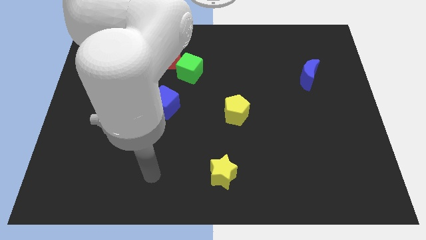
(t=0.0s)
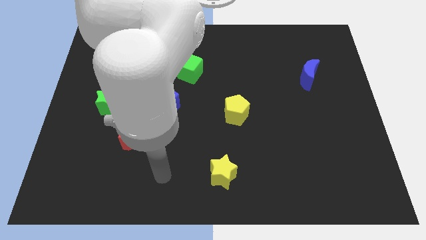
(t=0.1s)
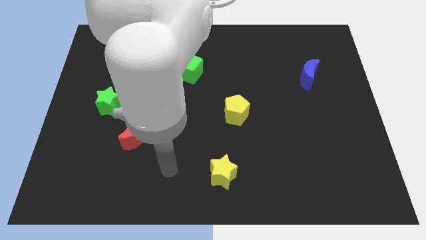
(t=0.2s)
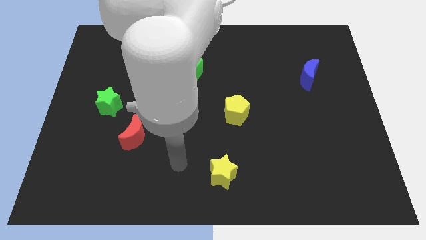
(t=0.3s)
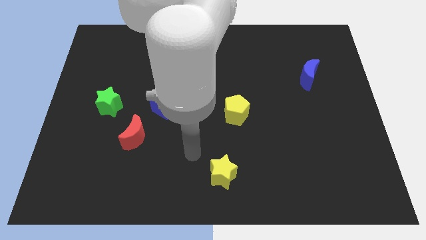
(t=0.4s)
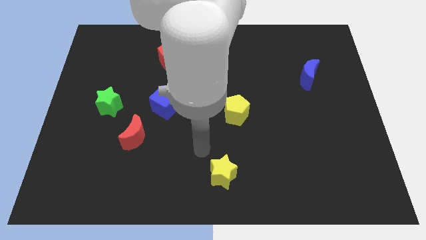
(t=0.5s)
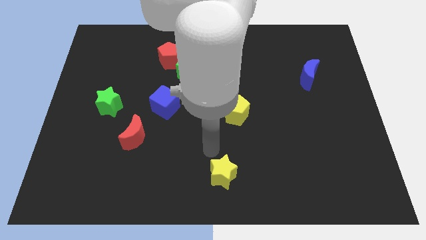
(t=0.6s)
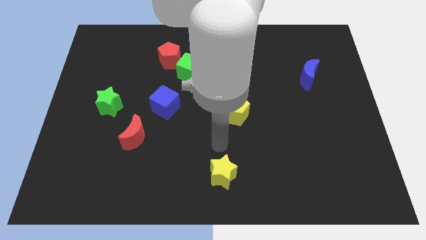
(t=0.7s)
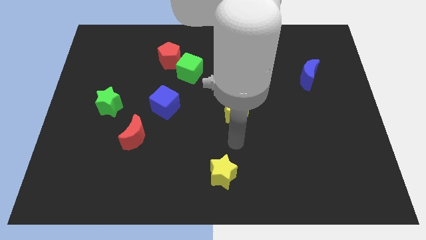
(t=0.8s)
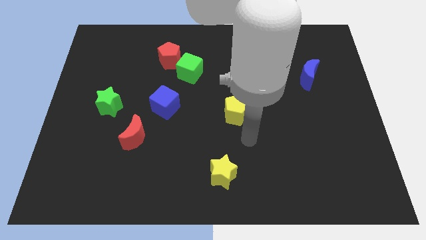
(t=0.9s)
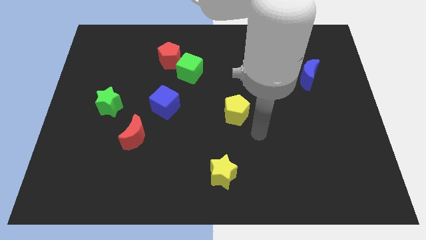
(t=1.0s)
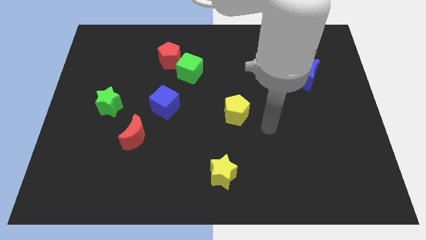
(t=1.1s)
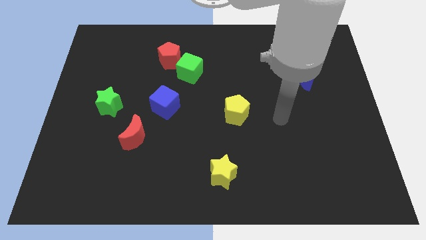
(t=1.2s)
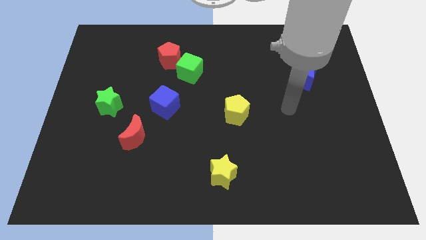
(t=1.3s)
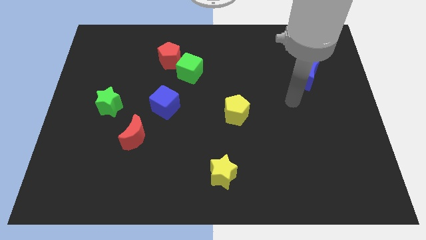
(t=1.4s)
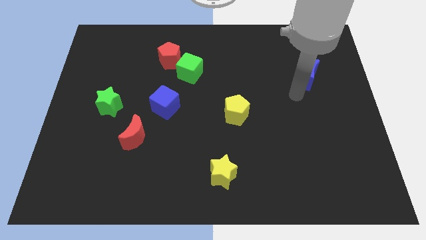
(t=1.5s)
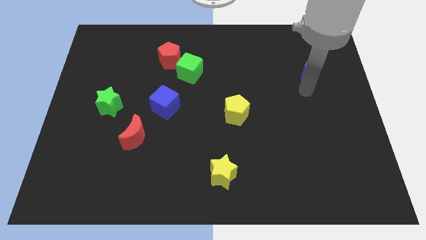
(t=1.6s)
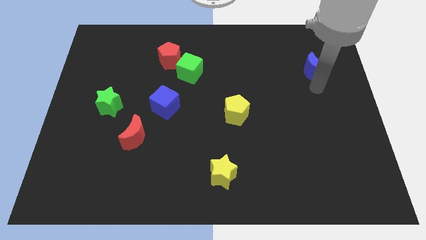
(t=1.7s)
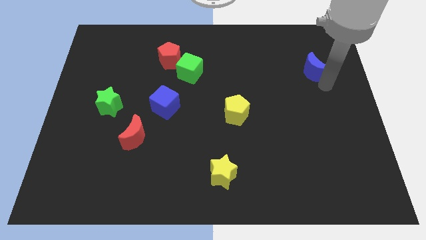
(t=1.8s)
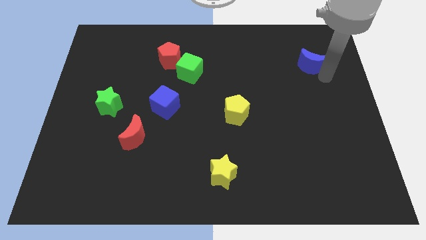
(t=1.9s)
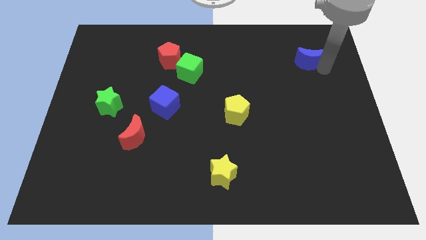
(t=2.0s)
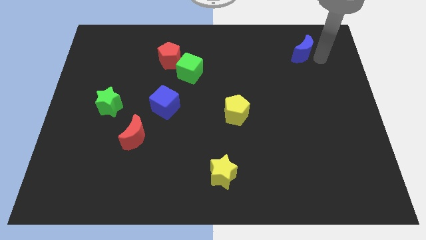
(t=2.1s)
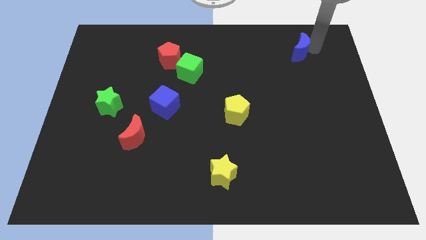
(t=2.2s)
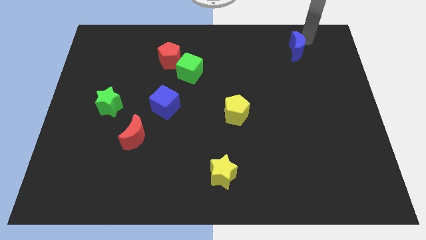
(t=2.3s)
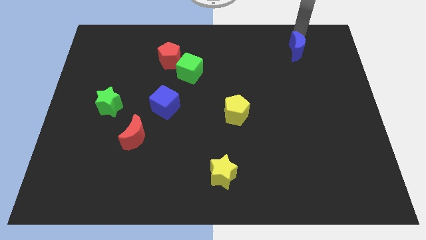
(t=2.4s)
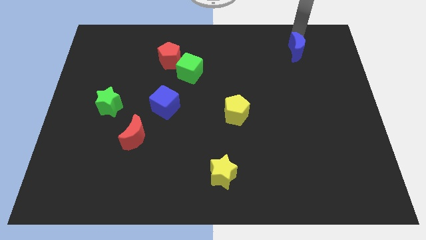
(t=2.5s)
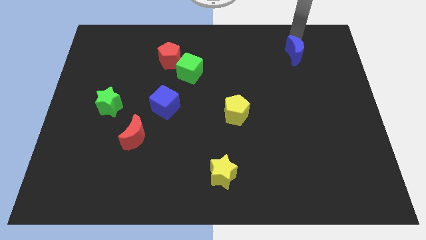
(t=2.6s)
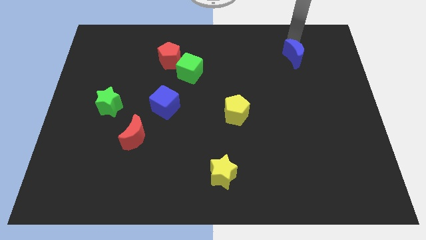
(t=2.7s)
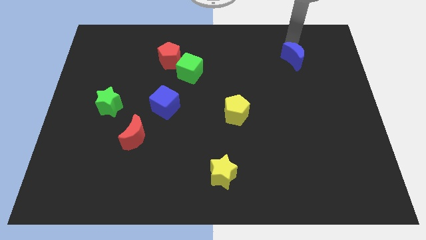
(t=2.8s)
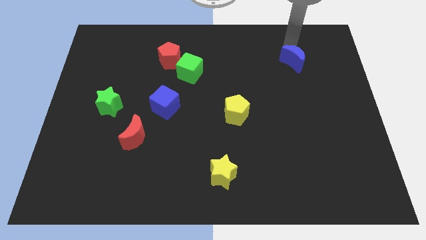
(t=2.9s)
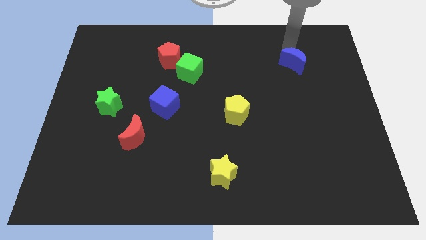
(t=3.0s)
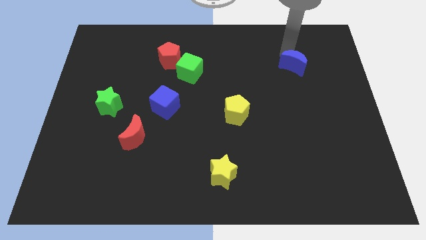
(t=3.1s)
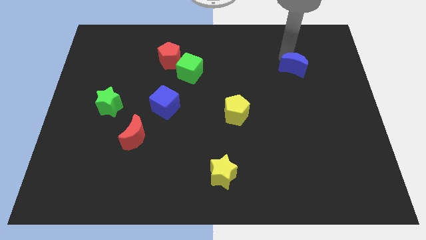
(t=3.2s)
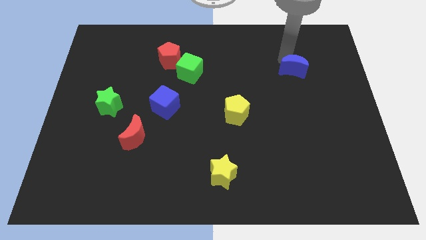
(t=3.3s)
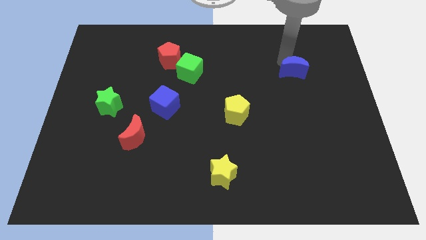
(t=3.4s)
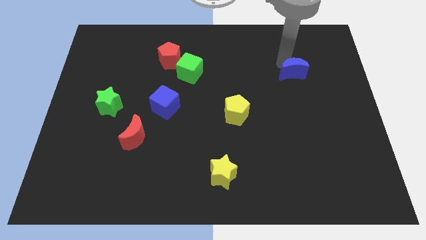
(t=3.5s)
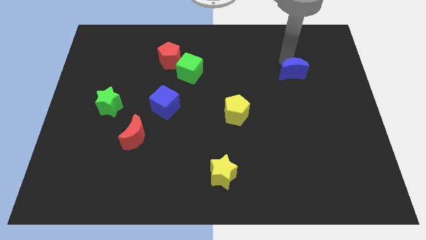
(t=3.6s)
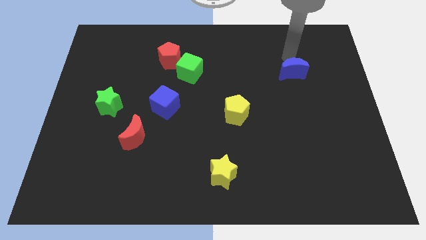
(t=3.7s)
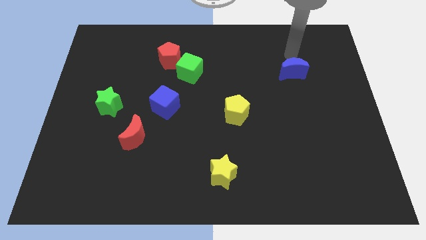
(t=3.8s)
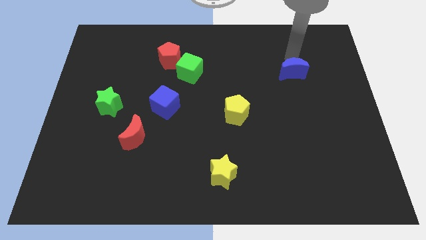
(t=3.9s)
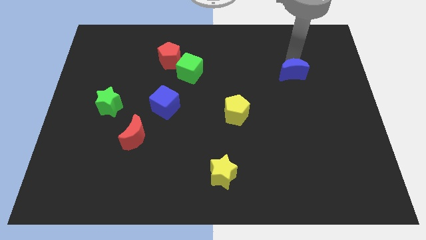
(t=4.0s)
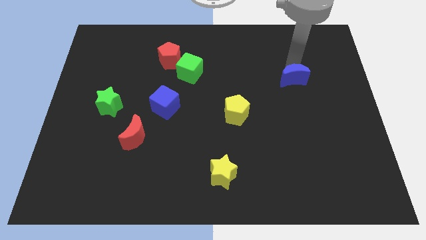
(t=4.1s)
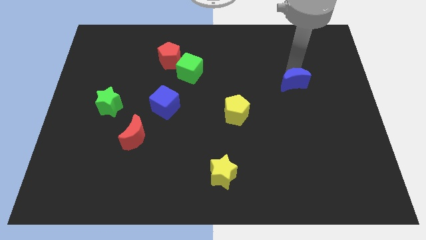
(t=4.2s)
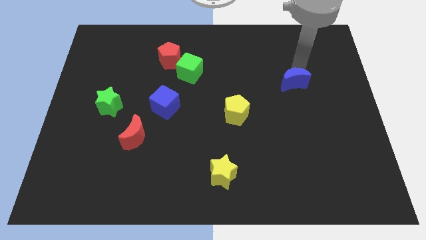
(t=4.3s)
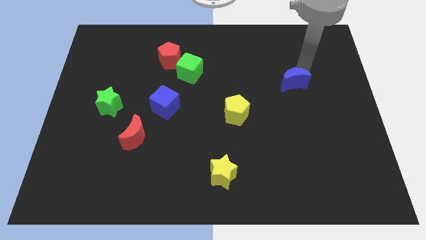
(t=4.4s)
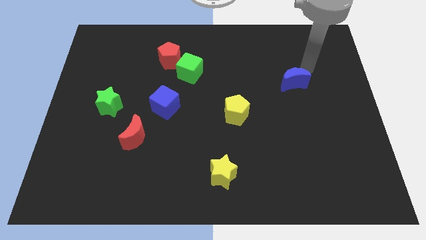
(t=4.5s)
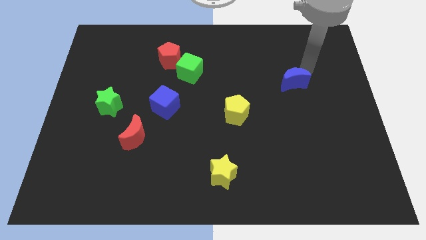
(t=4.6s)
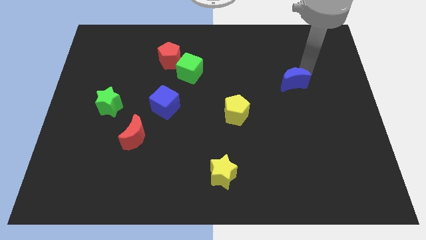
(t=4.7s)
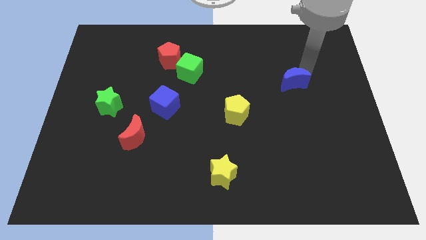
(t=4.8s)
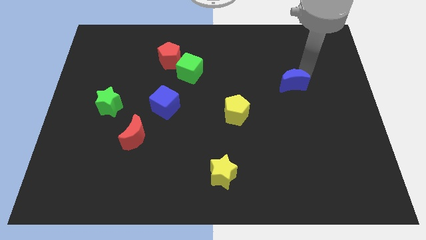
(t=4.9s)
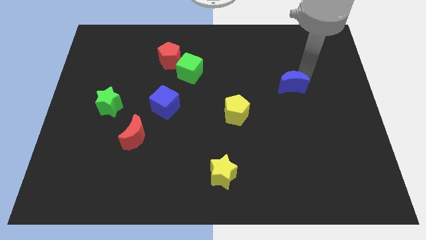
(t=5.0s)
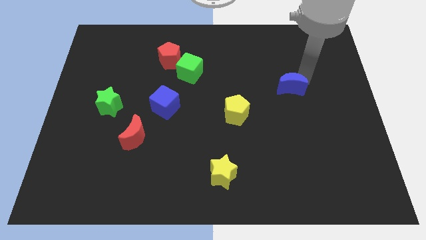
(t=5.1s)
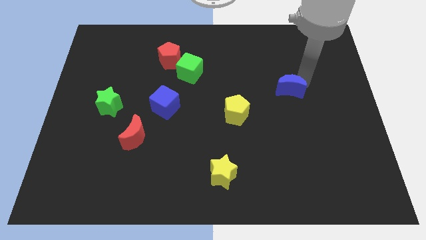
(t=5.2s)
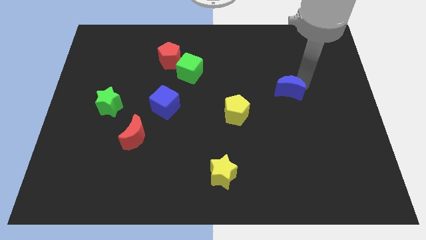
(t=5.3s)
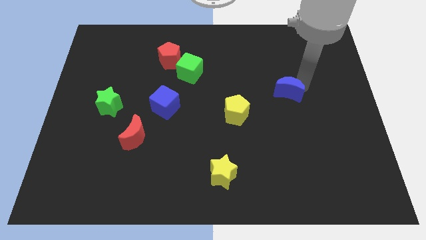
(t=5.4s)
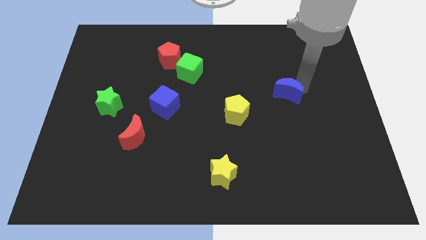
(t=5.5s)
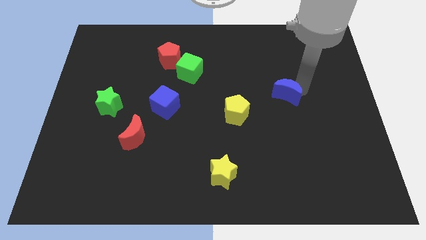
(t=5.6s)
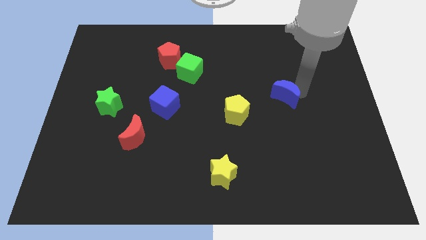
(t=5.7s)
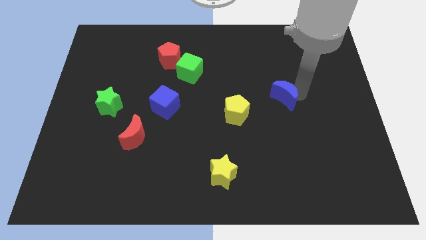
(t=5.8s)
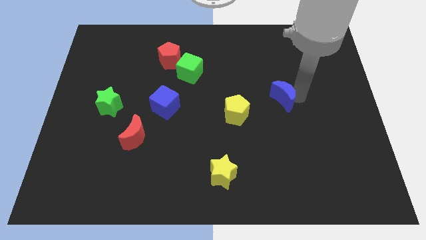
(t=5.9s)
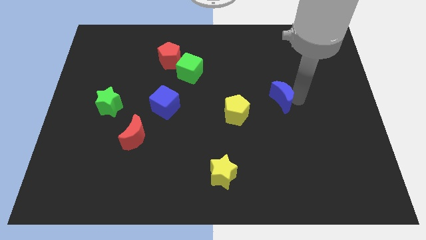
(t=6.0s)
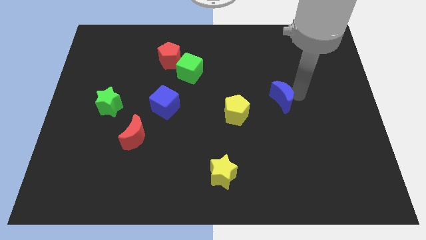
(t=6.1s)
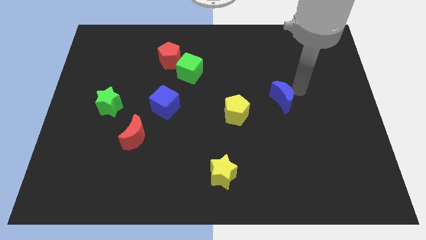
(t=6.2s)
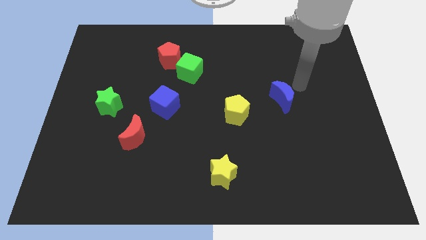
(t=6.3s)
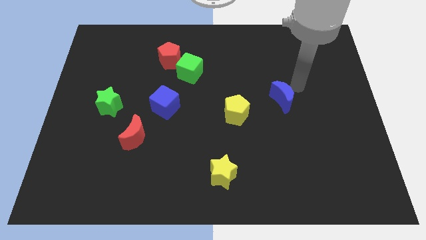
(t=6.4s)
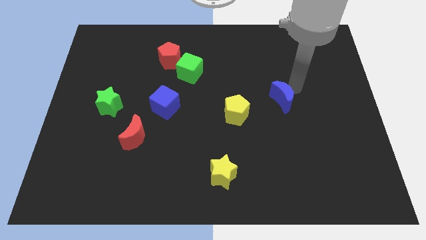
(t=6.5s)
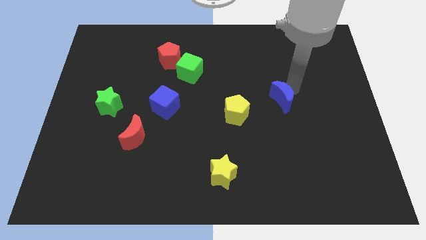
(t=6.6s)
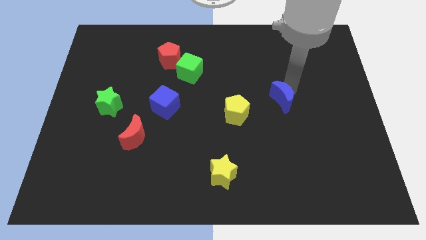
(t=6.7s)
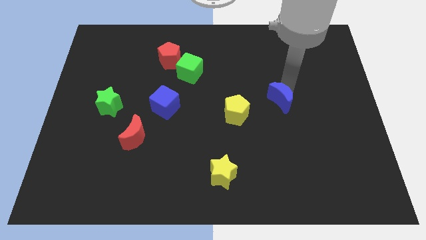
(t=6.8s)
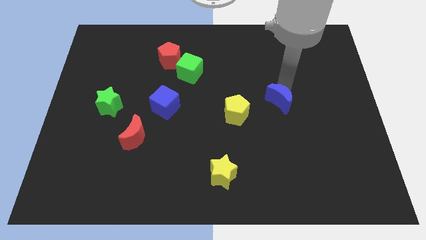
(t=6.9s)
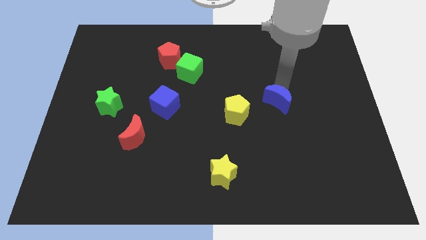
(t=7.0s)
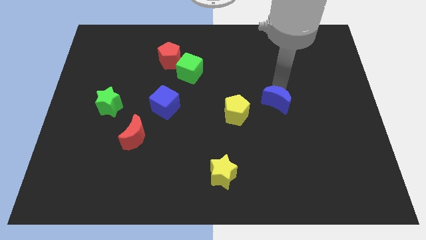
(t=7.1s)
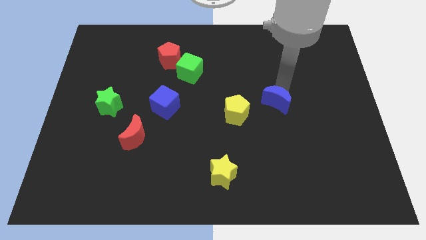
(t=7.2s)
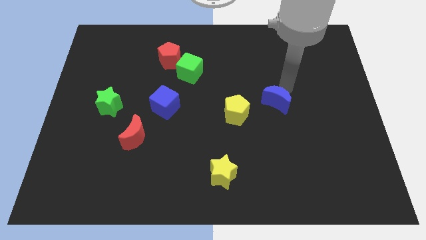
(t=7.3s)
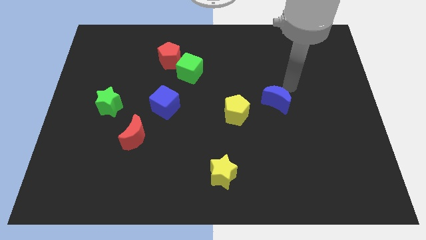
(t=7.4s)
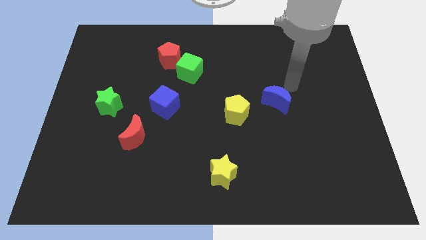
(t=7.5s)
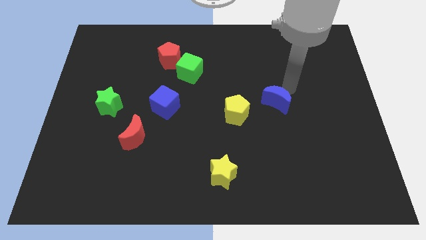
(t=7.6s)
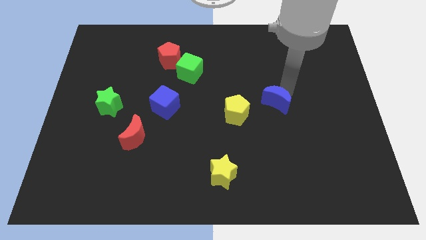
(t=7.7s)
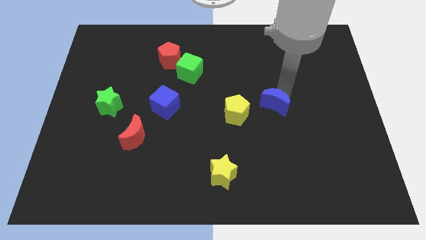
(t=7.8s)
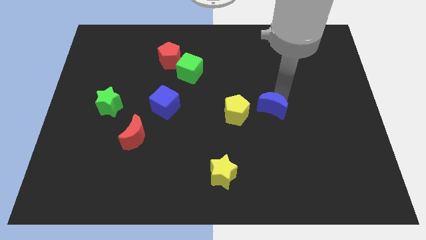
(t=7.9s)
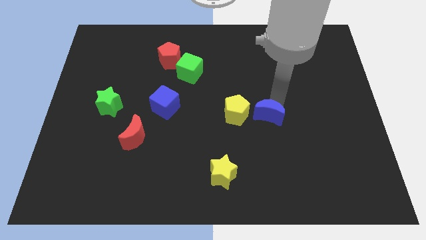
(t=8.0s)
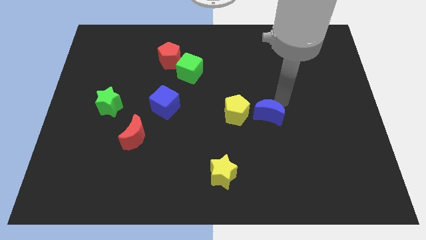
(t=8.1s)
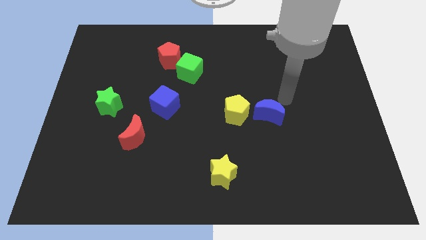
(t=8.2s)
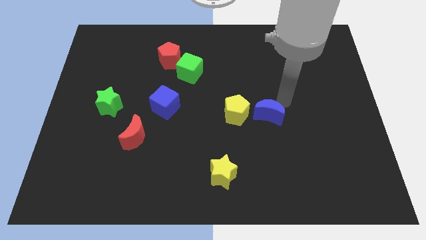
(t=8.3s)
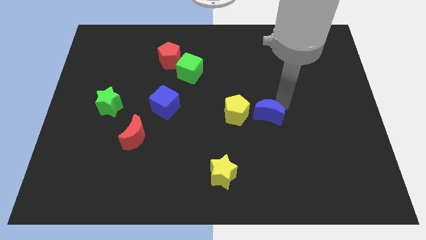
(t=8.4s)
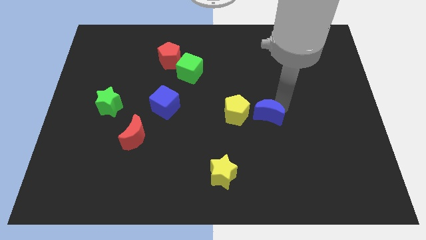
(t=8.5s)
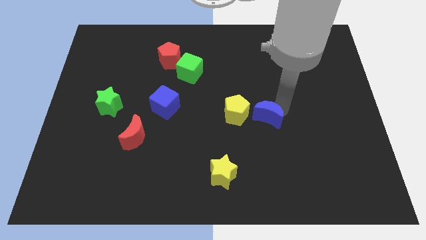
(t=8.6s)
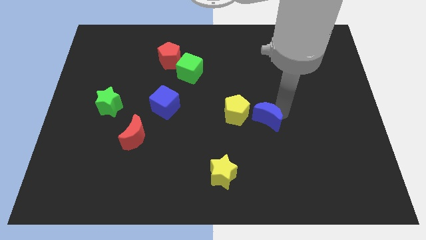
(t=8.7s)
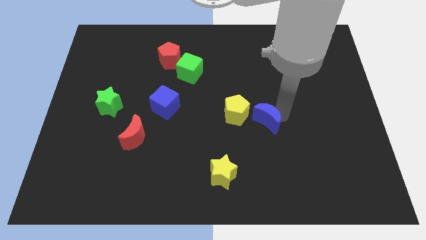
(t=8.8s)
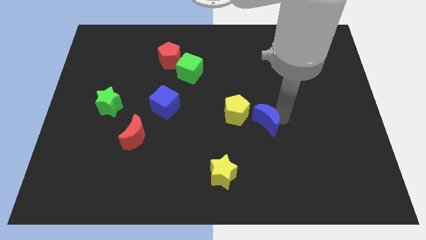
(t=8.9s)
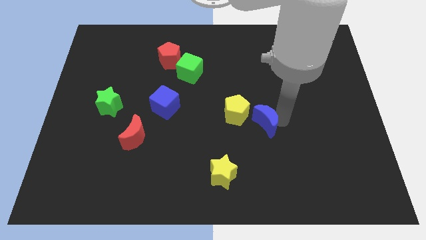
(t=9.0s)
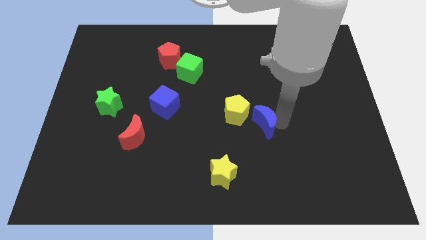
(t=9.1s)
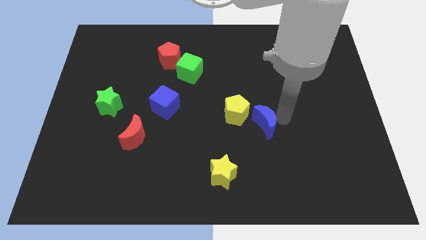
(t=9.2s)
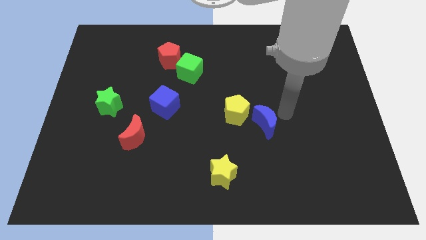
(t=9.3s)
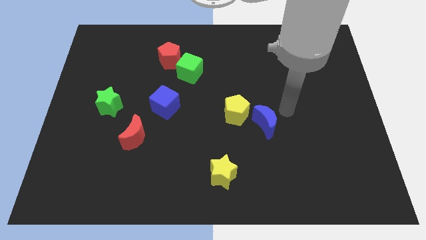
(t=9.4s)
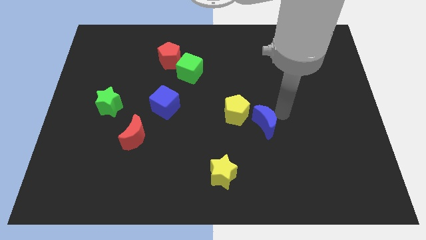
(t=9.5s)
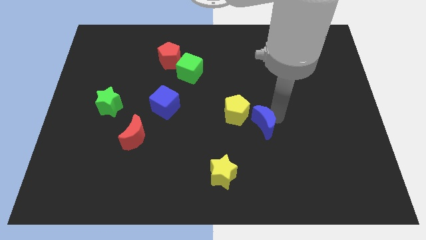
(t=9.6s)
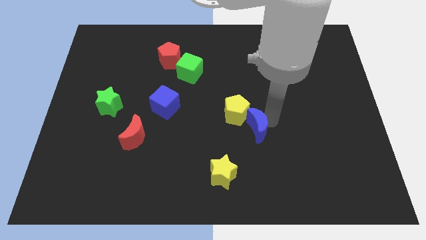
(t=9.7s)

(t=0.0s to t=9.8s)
slide the blue moon downwards and to the left
